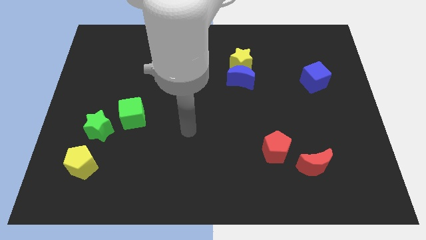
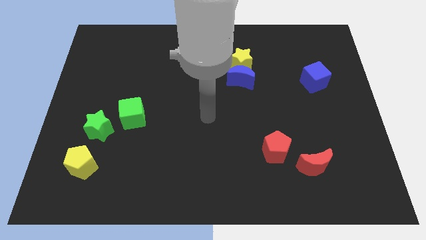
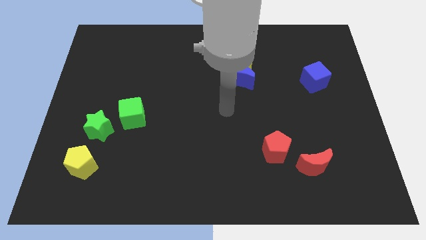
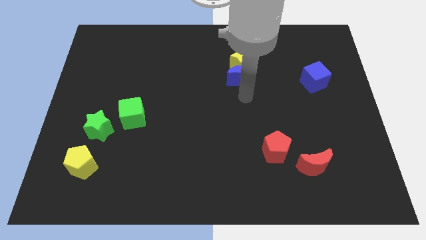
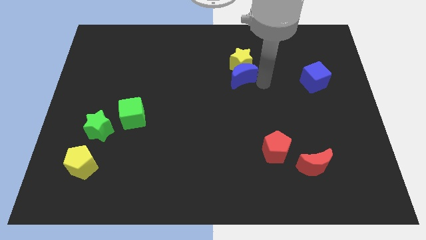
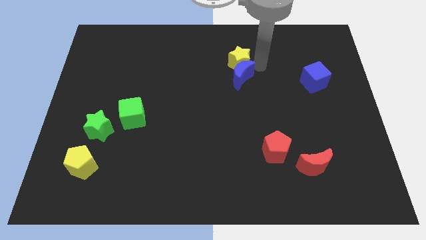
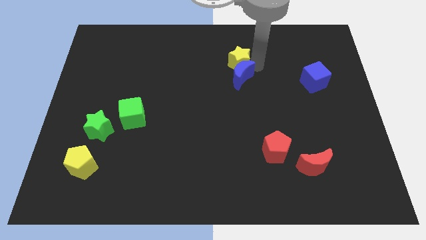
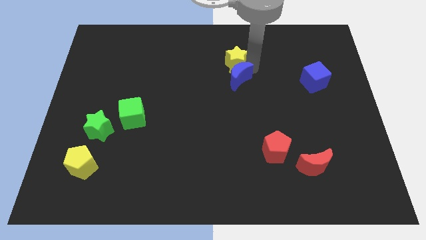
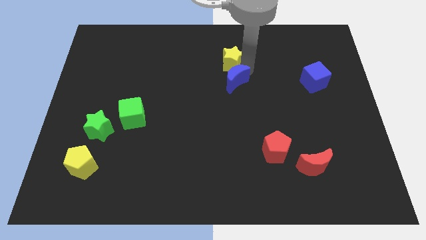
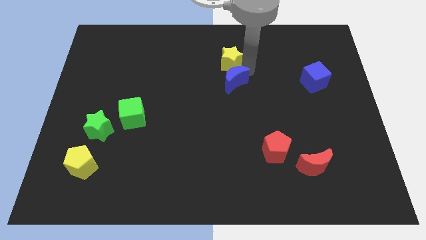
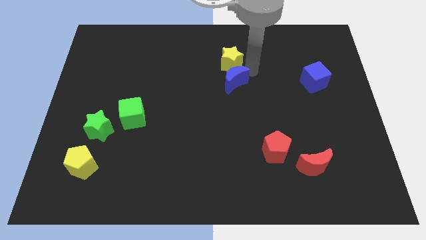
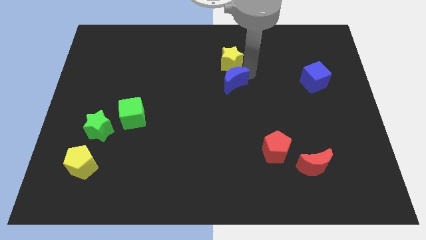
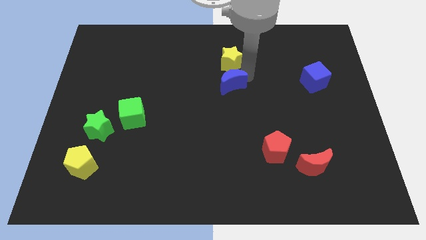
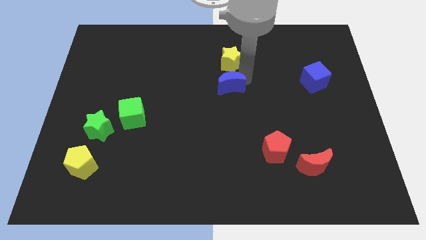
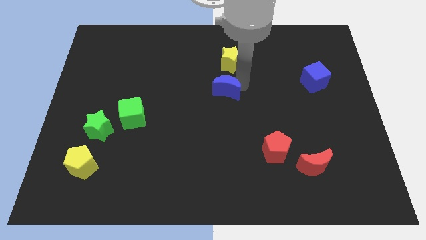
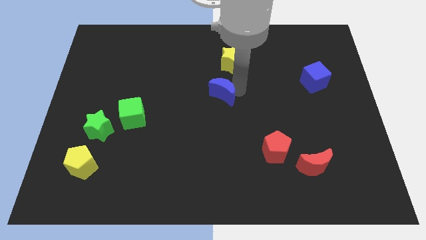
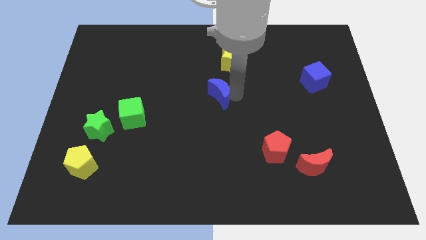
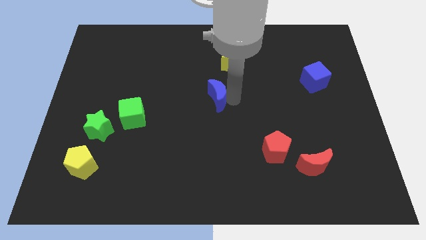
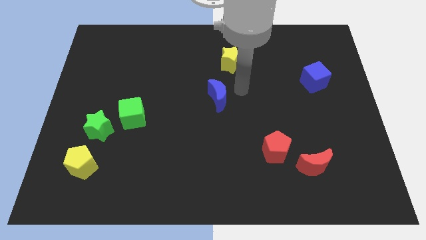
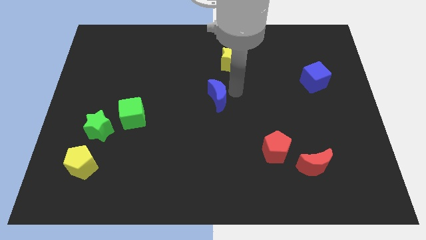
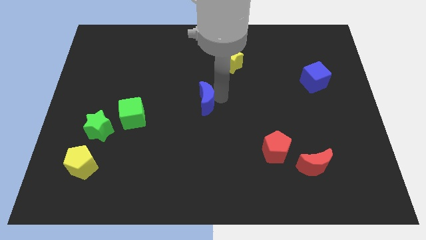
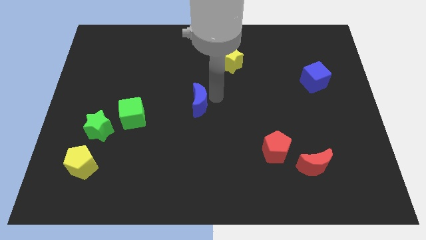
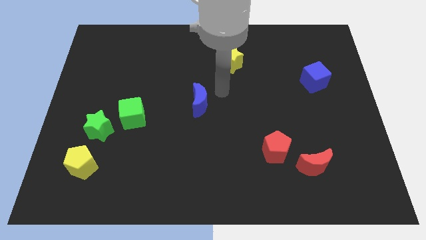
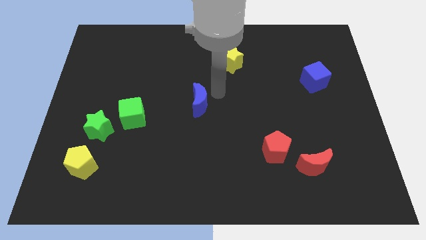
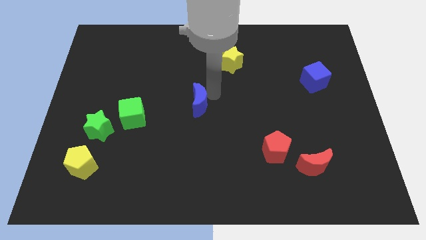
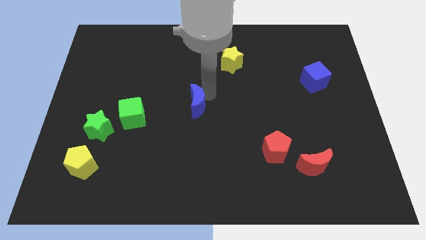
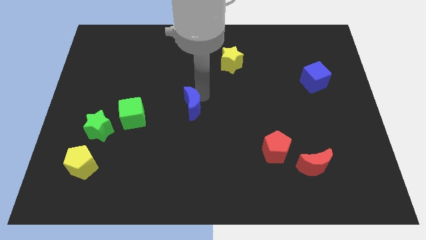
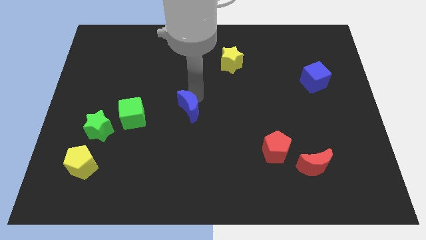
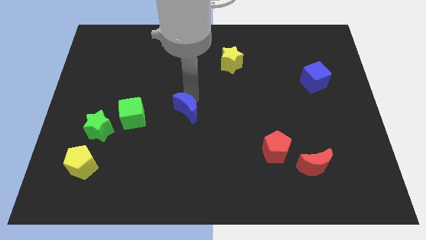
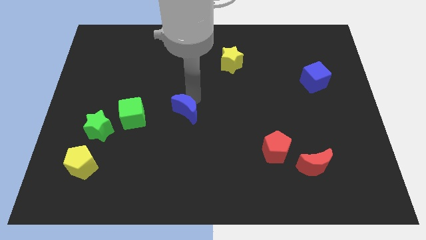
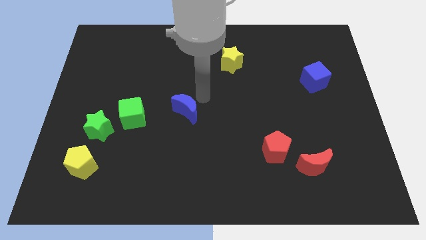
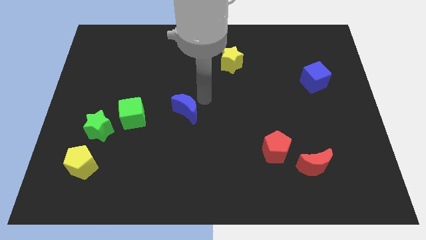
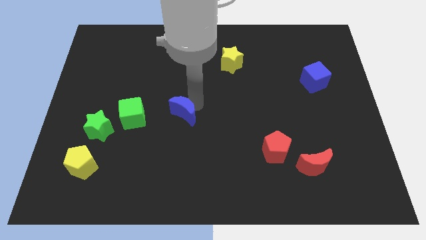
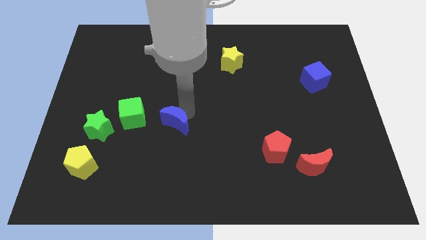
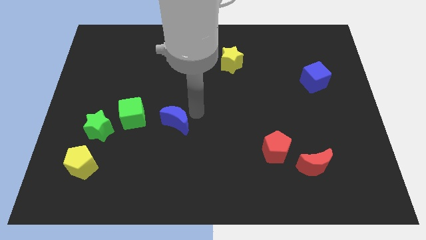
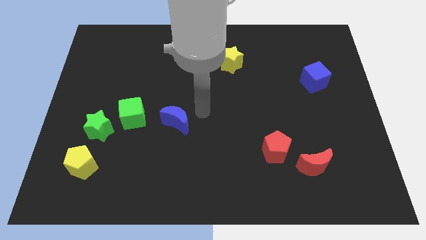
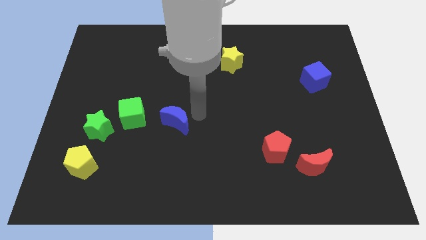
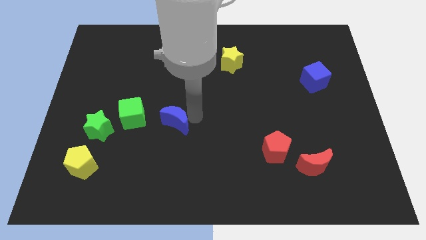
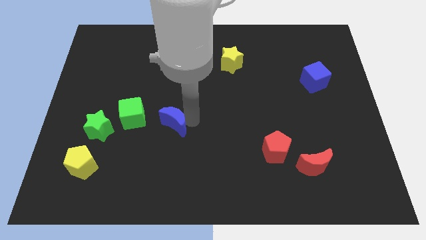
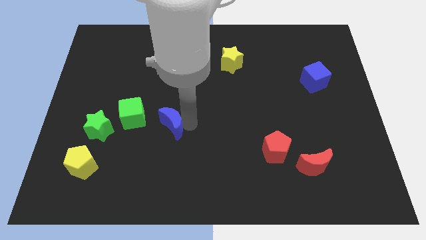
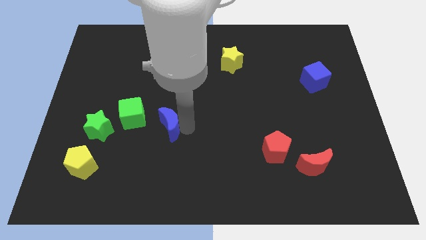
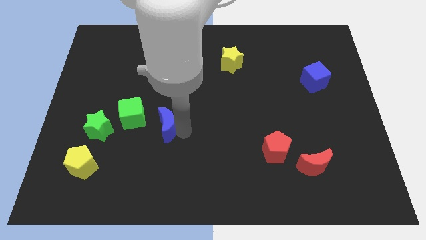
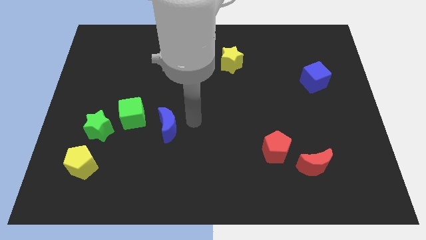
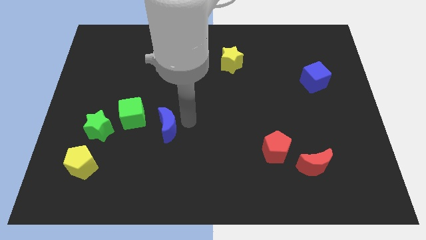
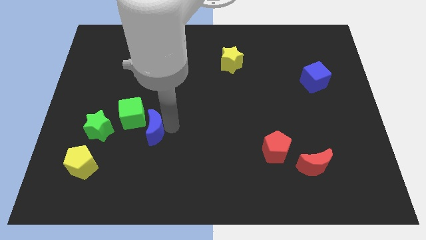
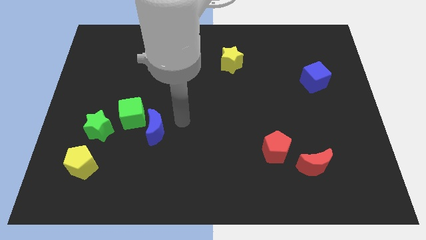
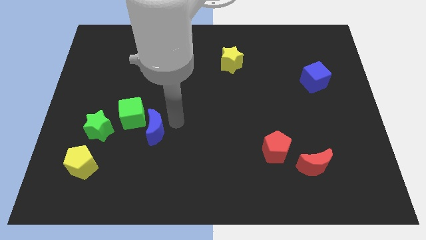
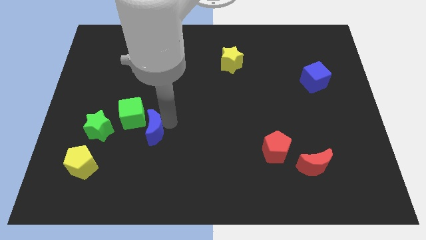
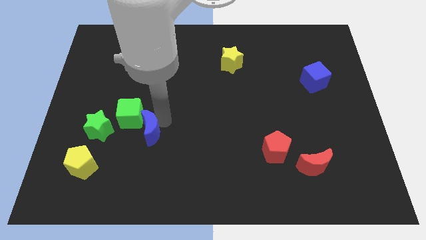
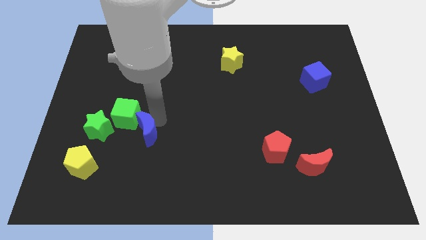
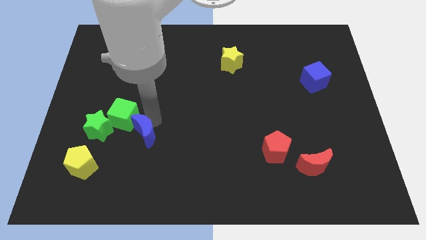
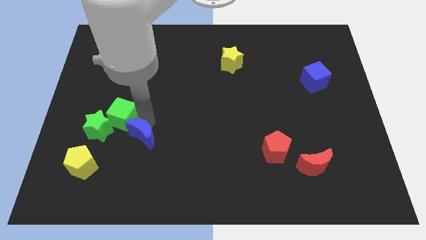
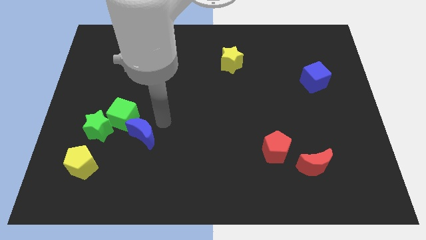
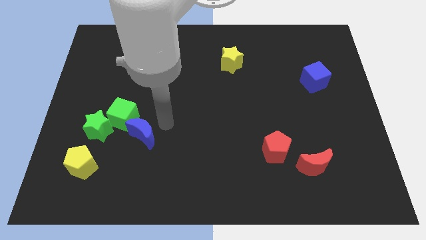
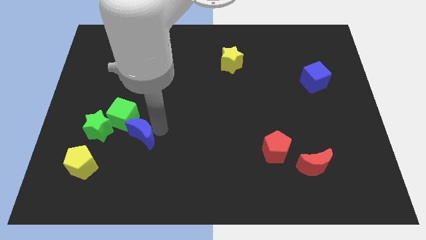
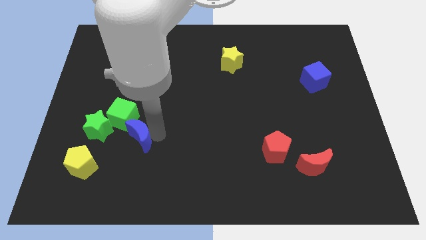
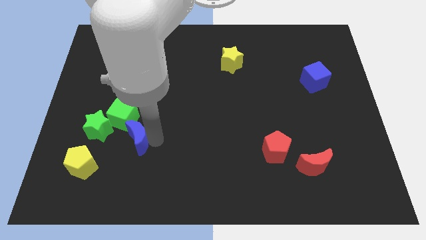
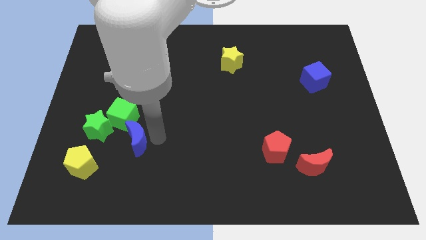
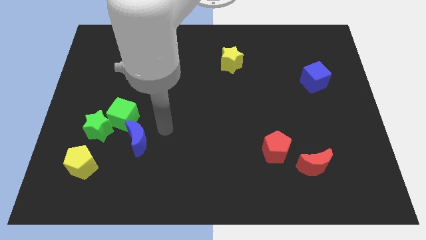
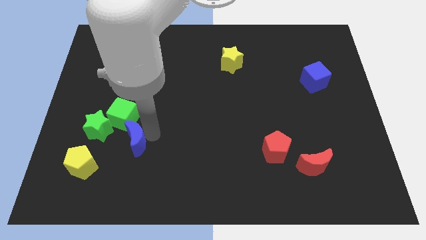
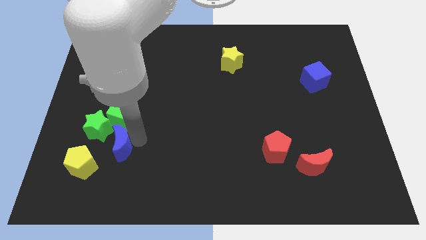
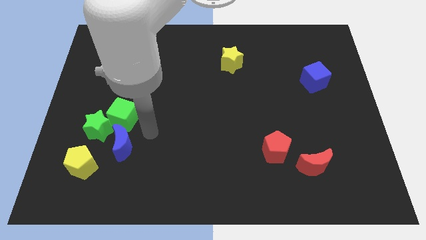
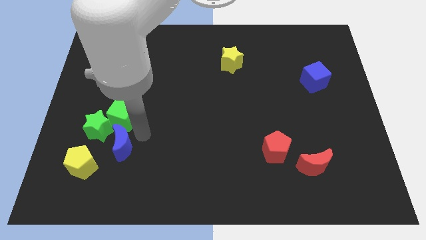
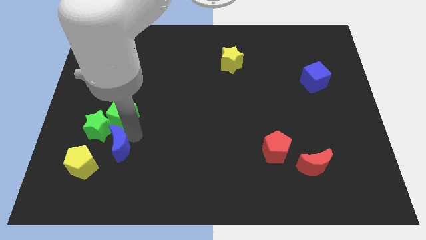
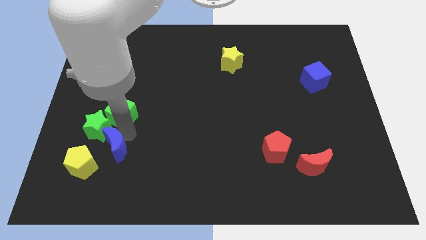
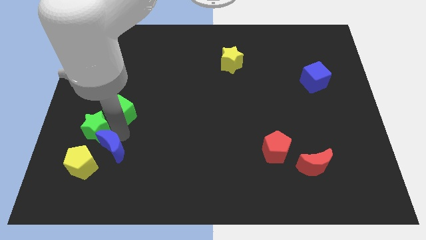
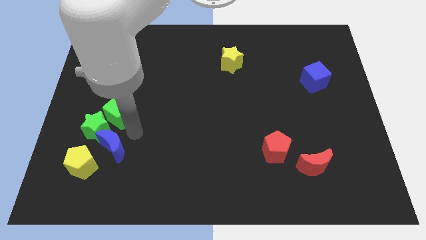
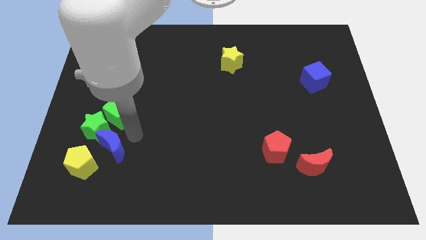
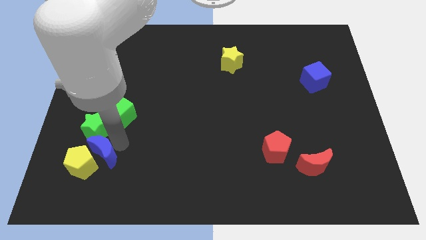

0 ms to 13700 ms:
push the blue moon towards the yellow pentagon

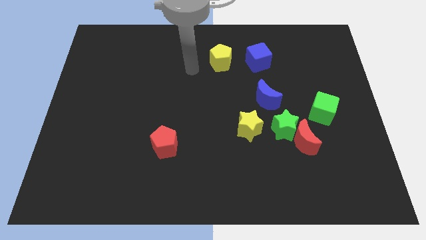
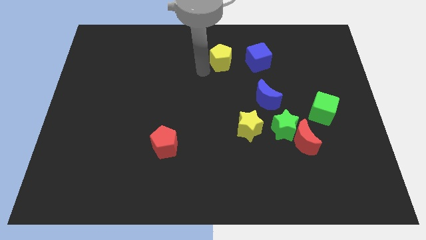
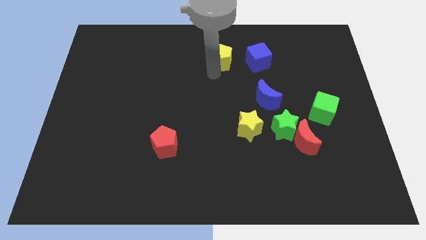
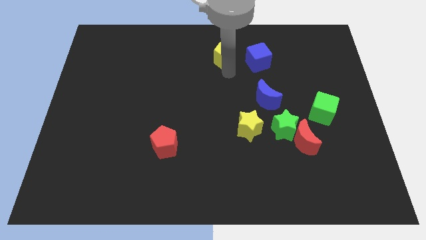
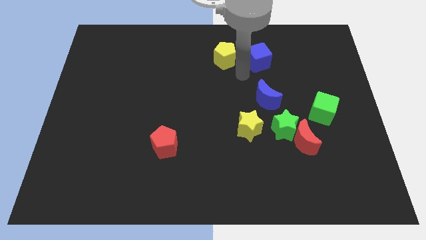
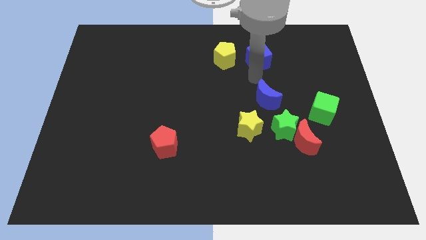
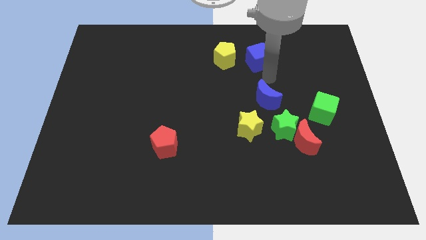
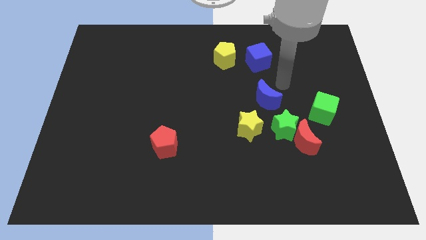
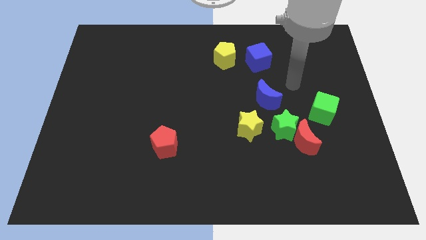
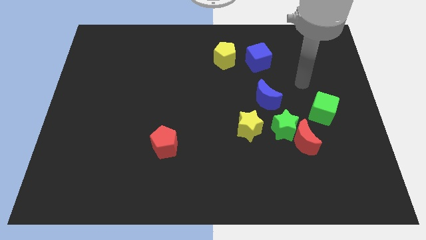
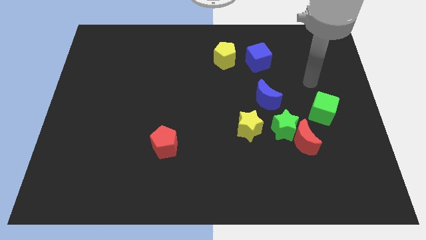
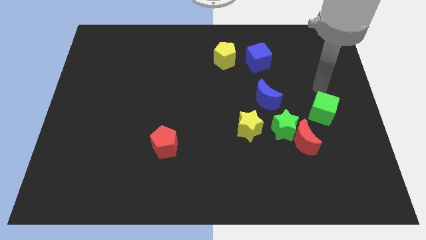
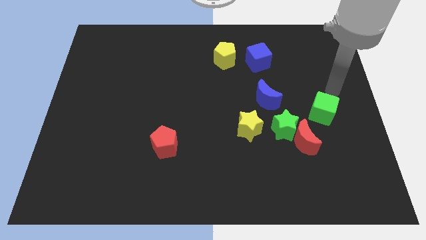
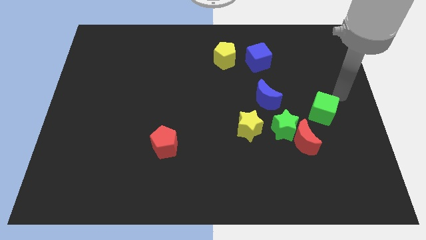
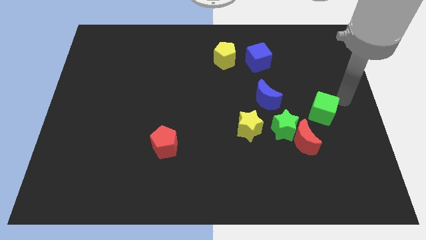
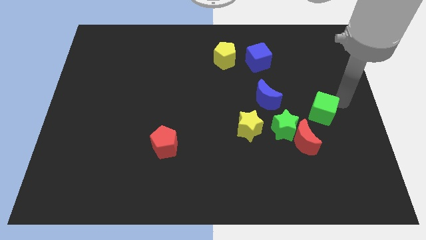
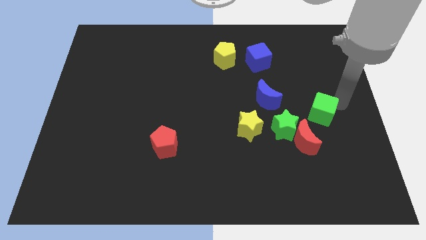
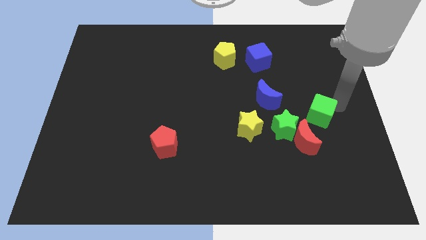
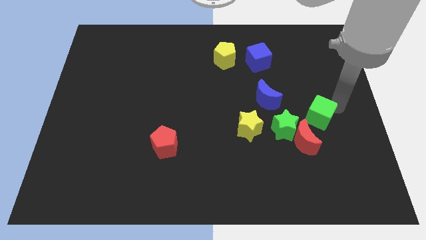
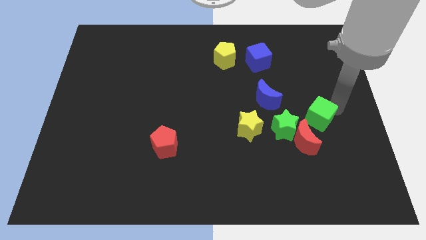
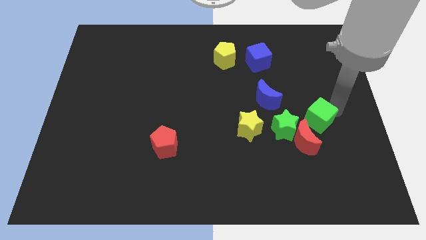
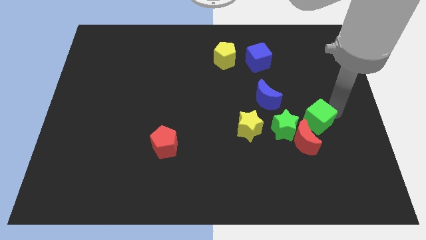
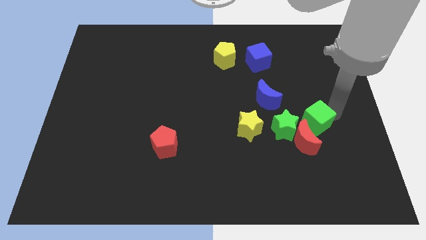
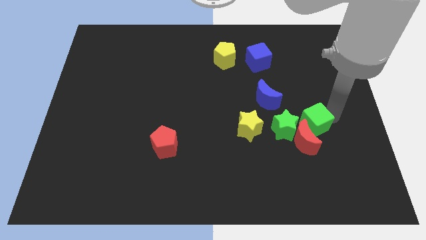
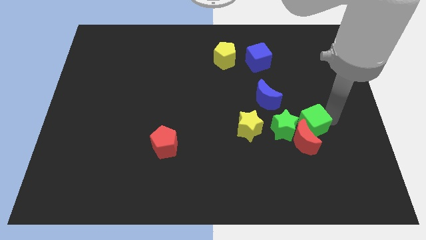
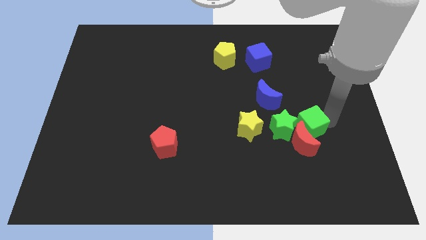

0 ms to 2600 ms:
slide the green cube to the green star
